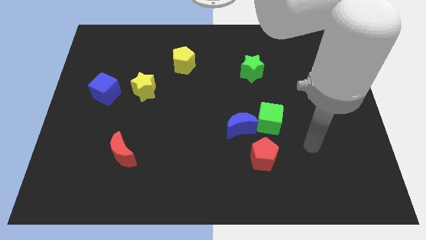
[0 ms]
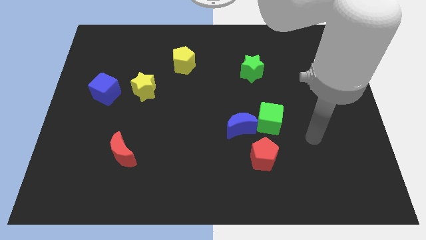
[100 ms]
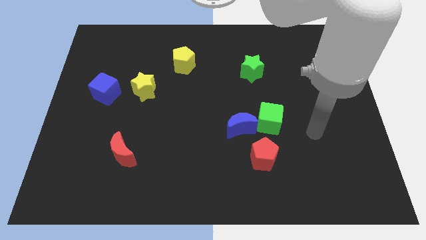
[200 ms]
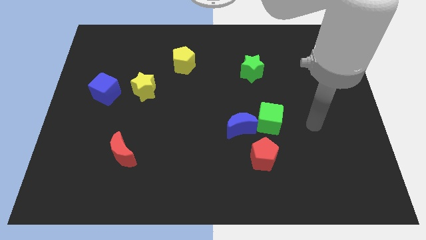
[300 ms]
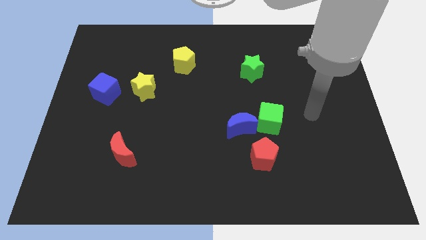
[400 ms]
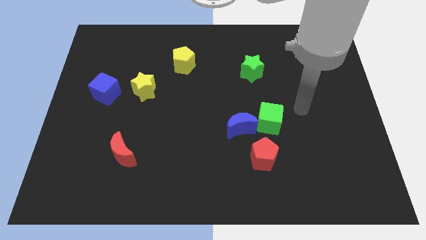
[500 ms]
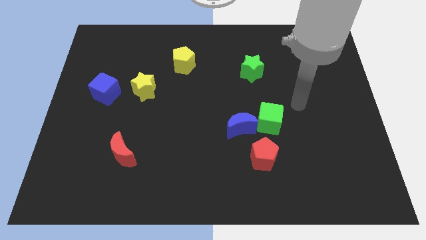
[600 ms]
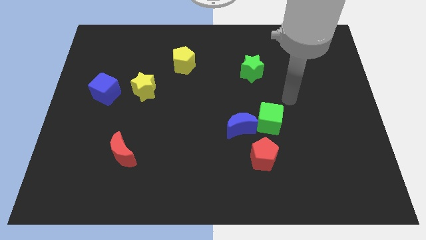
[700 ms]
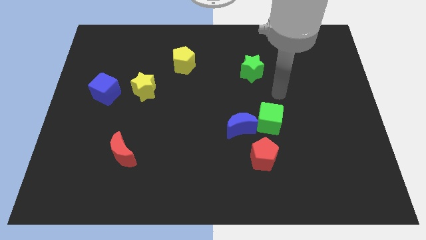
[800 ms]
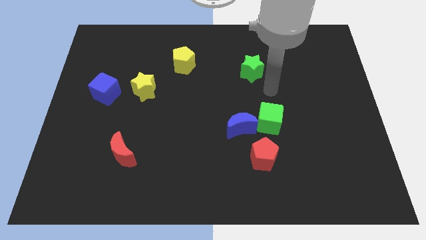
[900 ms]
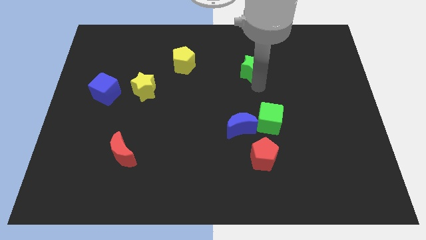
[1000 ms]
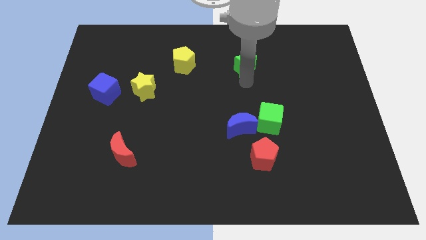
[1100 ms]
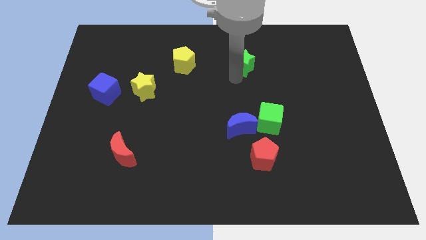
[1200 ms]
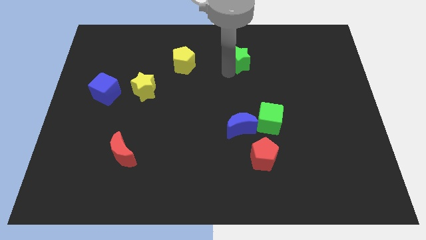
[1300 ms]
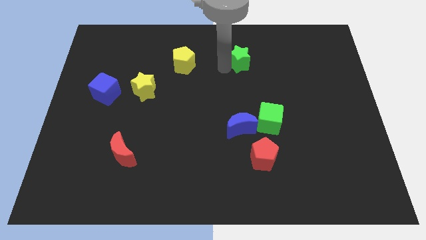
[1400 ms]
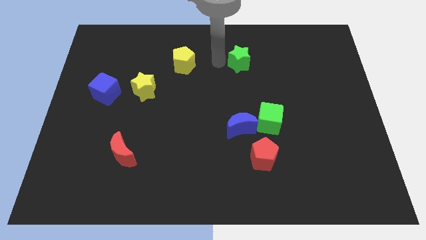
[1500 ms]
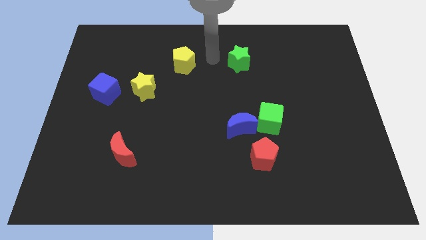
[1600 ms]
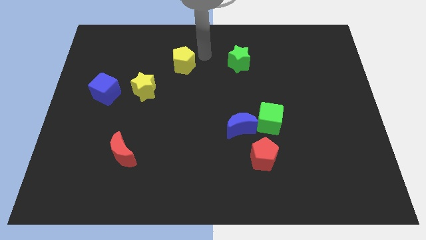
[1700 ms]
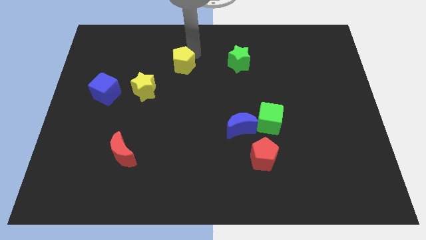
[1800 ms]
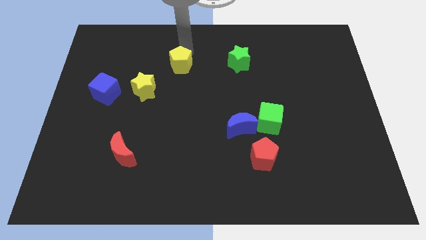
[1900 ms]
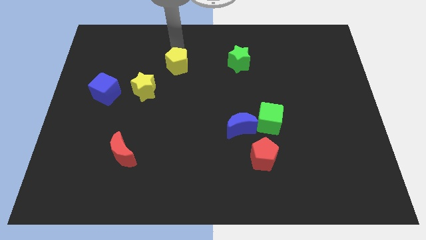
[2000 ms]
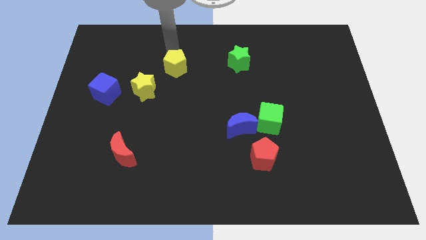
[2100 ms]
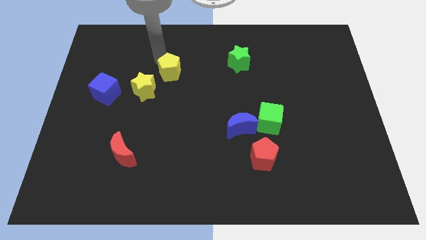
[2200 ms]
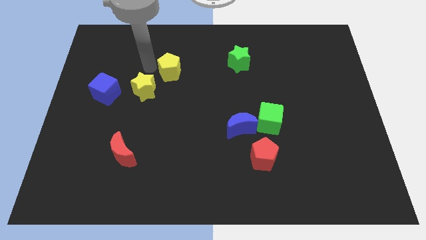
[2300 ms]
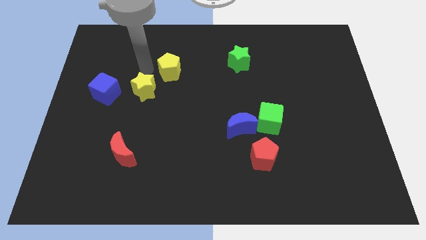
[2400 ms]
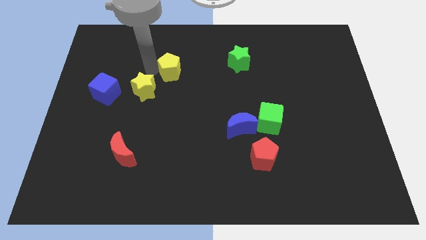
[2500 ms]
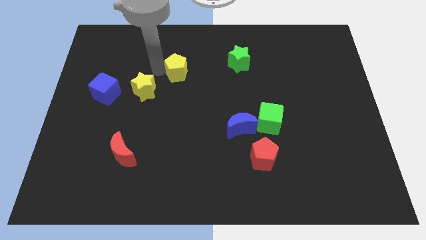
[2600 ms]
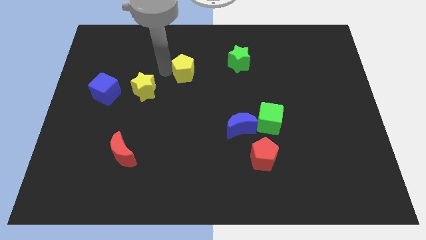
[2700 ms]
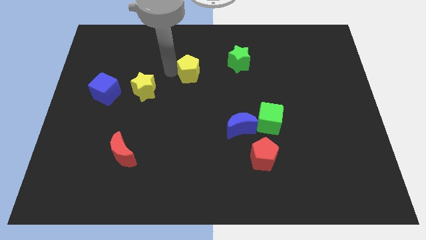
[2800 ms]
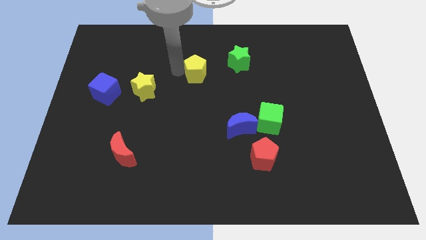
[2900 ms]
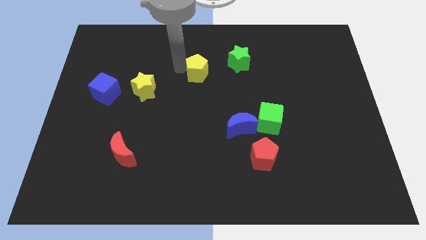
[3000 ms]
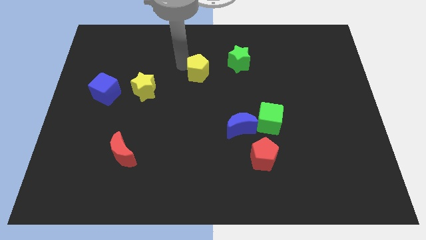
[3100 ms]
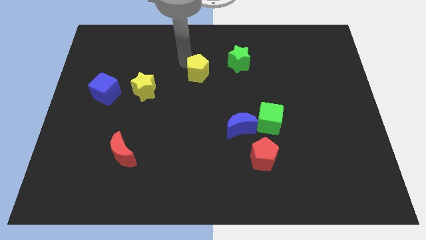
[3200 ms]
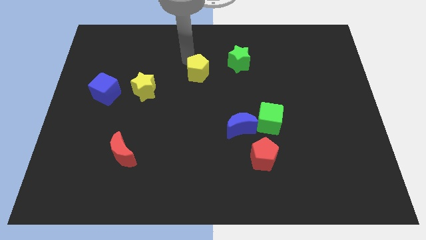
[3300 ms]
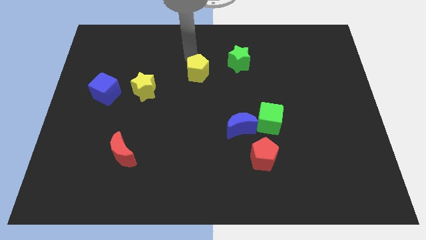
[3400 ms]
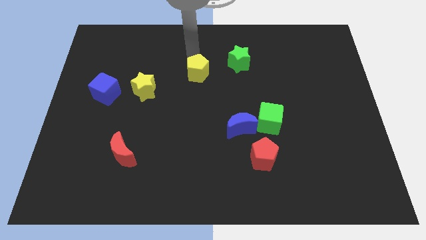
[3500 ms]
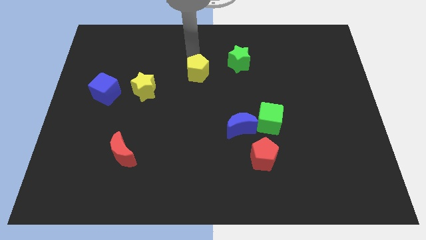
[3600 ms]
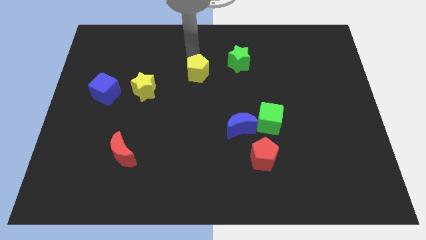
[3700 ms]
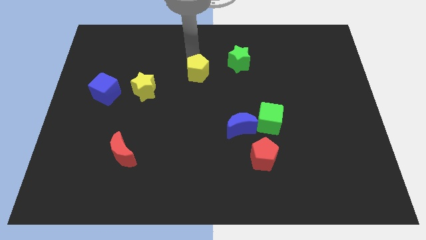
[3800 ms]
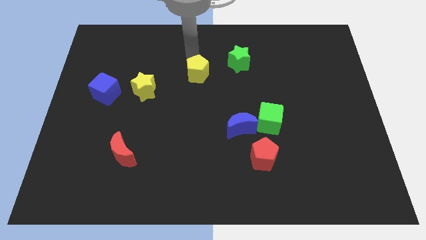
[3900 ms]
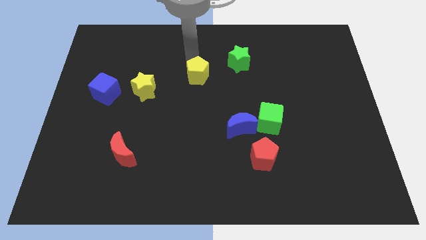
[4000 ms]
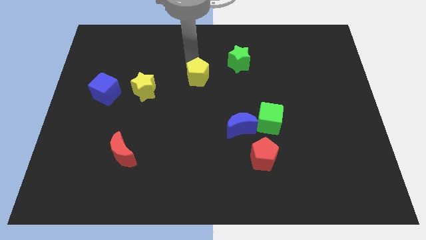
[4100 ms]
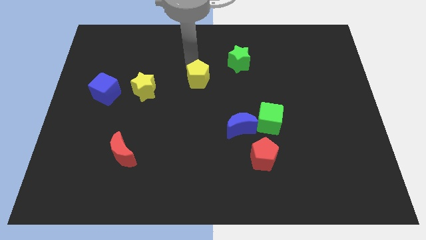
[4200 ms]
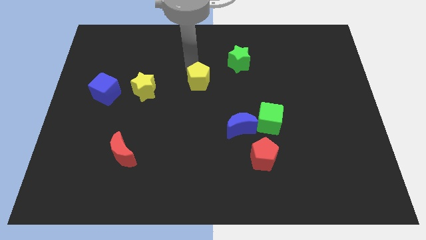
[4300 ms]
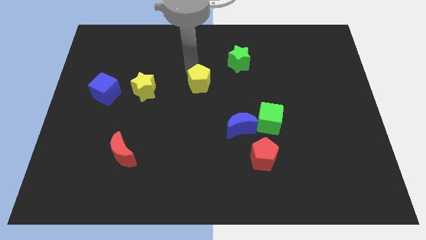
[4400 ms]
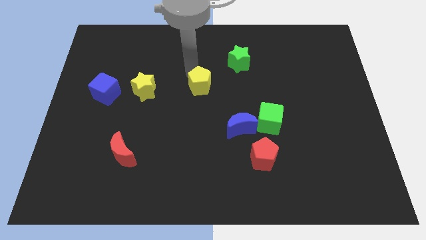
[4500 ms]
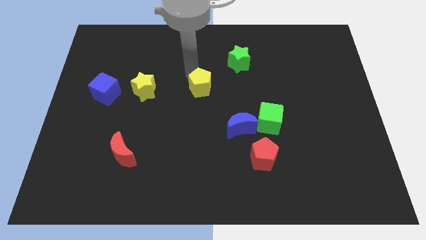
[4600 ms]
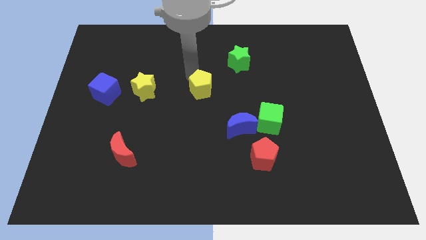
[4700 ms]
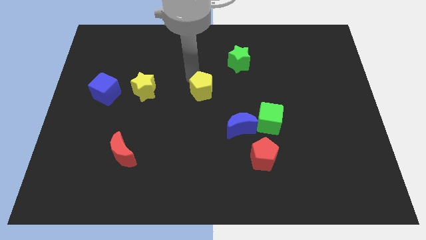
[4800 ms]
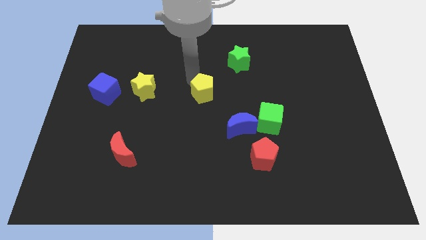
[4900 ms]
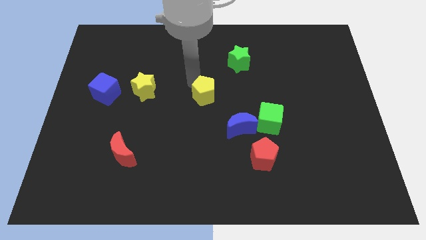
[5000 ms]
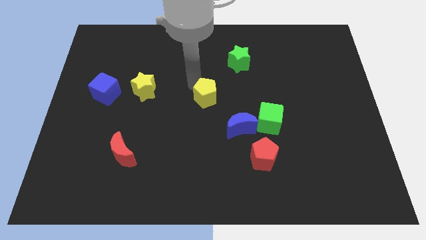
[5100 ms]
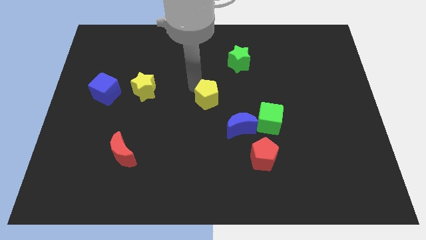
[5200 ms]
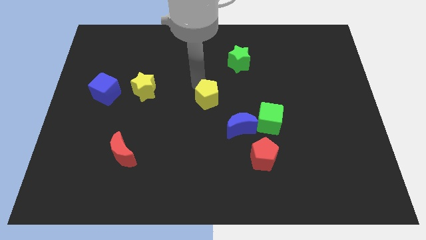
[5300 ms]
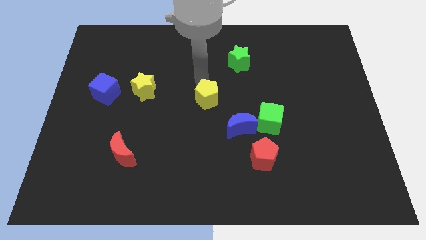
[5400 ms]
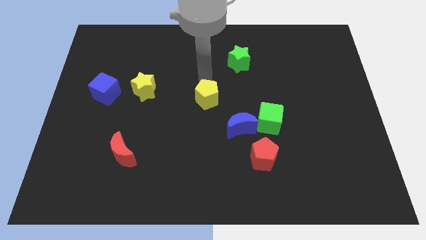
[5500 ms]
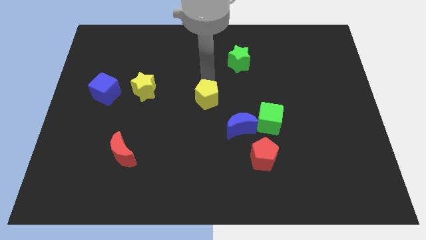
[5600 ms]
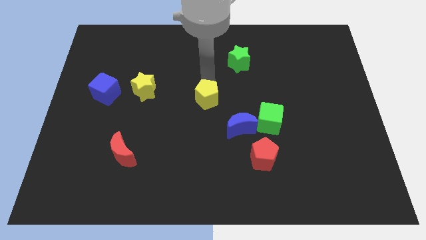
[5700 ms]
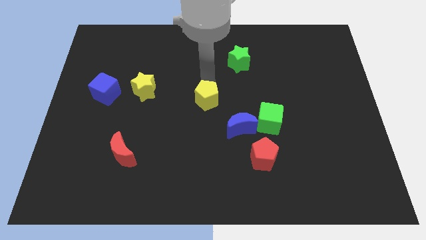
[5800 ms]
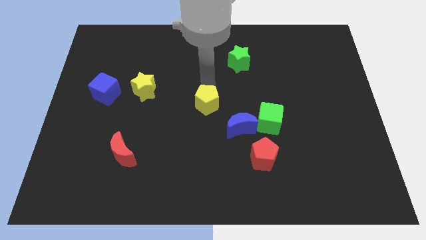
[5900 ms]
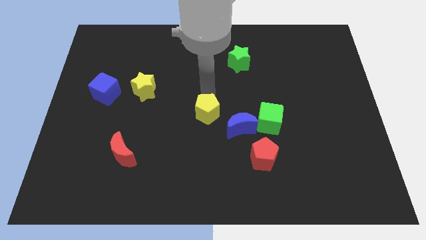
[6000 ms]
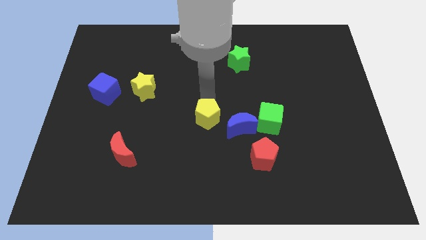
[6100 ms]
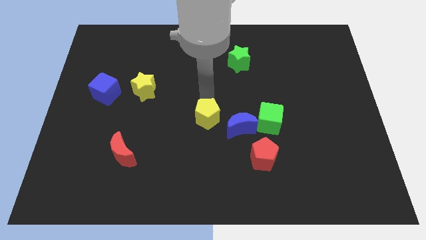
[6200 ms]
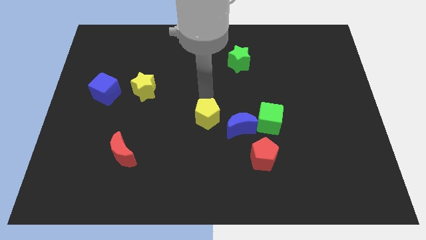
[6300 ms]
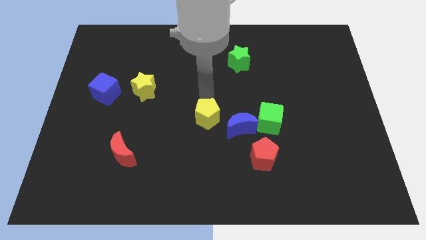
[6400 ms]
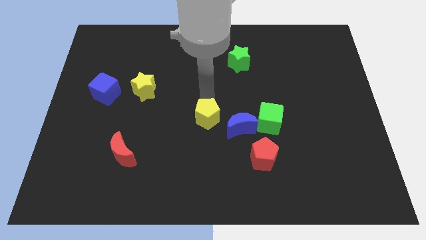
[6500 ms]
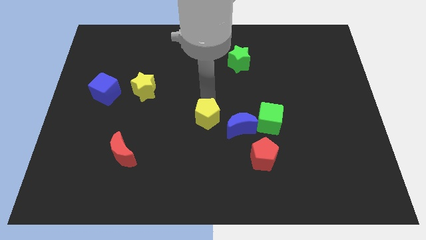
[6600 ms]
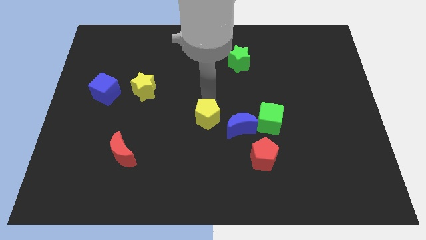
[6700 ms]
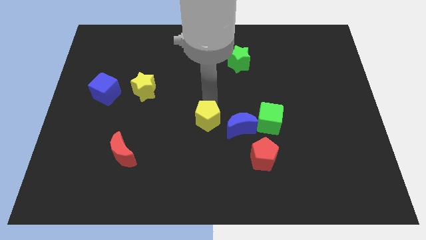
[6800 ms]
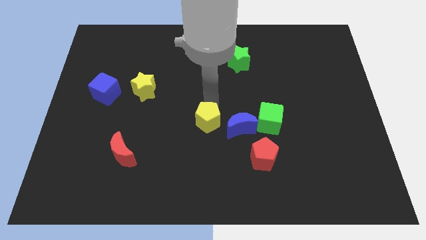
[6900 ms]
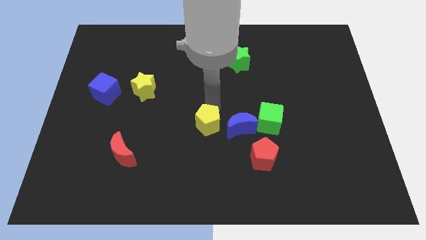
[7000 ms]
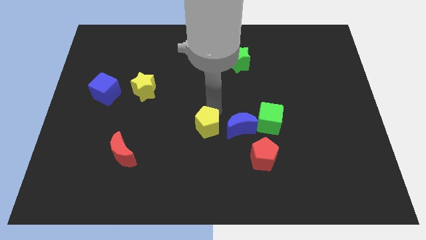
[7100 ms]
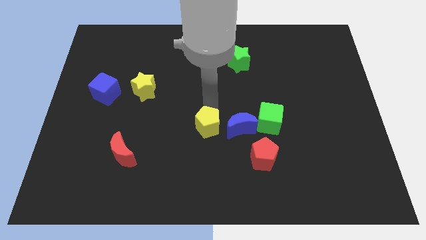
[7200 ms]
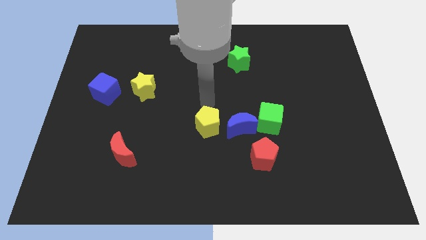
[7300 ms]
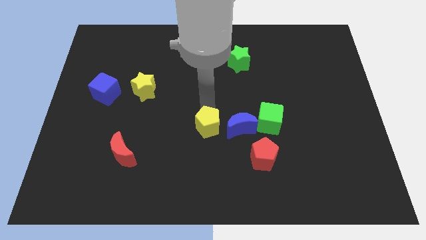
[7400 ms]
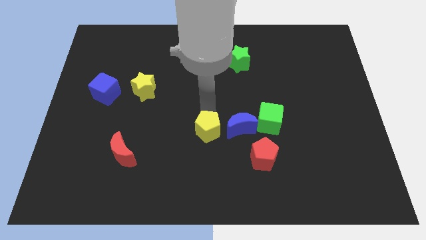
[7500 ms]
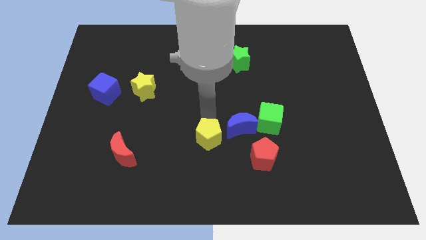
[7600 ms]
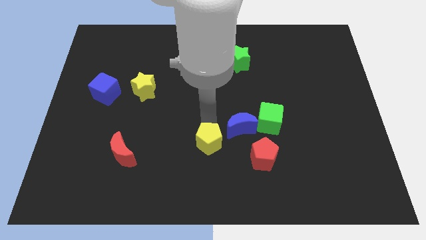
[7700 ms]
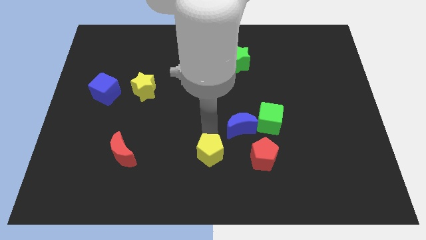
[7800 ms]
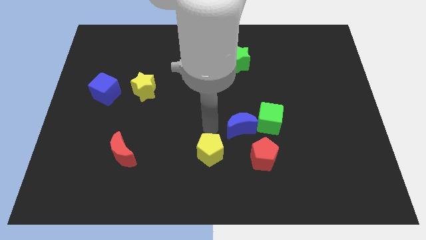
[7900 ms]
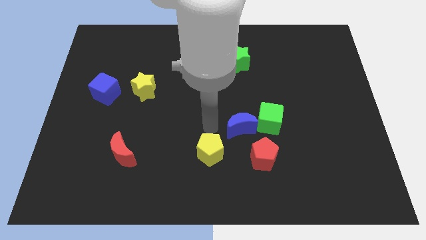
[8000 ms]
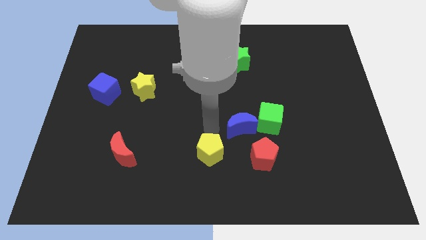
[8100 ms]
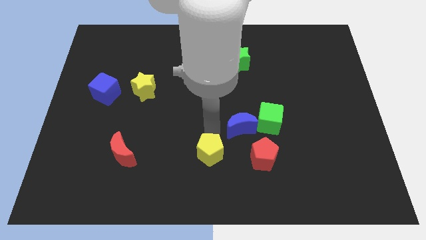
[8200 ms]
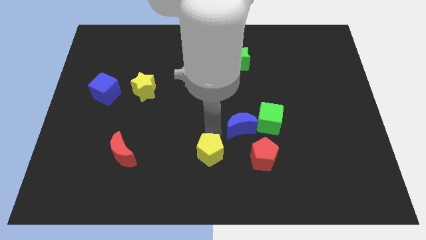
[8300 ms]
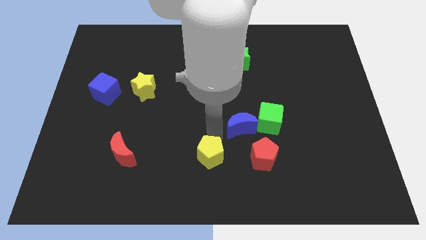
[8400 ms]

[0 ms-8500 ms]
slide the yellow pentagon to the bottom
